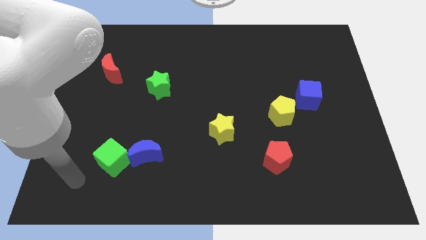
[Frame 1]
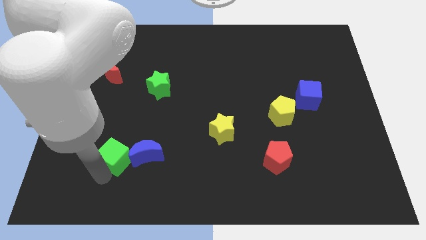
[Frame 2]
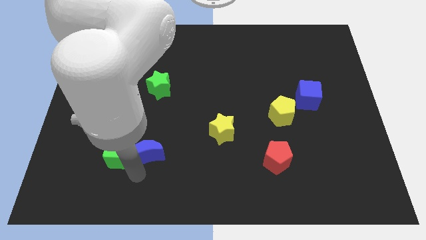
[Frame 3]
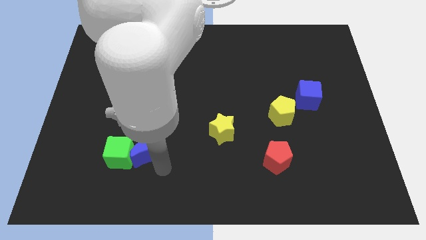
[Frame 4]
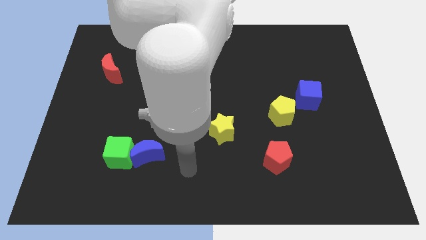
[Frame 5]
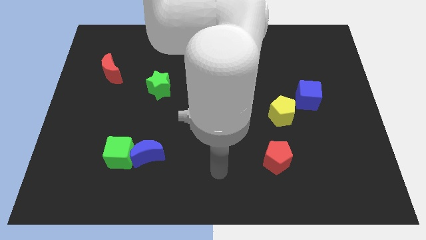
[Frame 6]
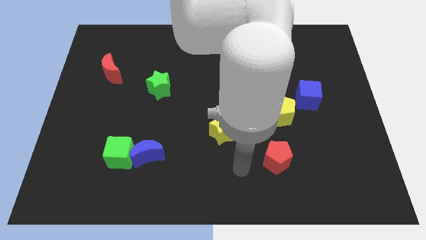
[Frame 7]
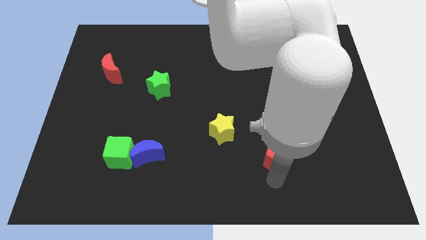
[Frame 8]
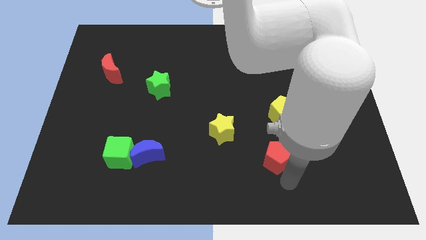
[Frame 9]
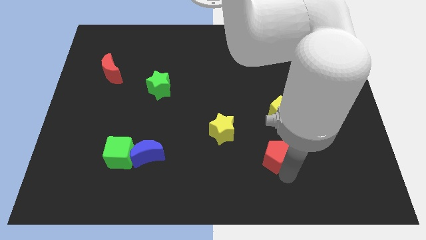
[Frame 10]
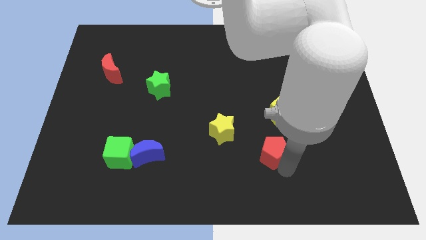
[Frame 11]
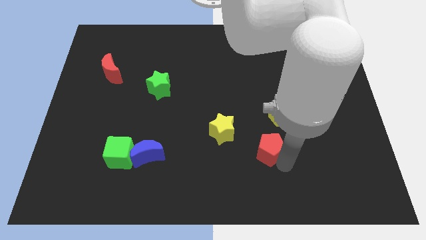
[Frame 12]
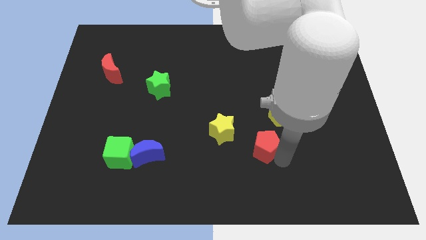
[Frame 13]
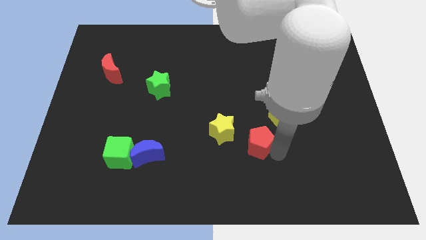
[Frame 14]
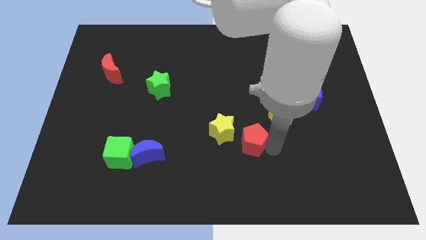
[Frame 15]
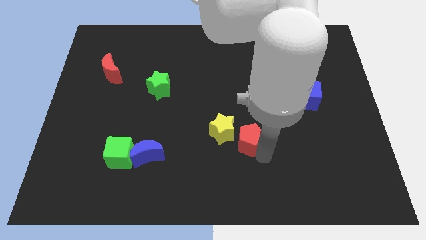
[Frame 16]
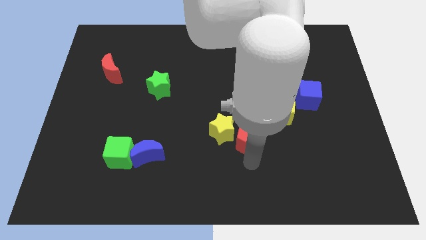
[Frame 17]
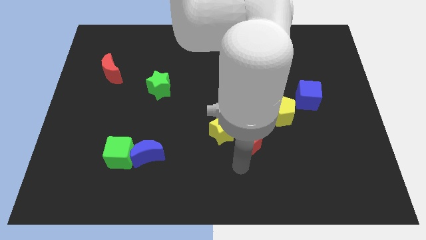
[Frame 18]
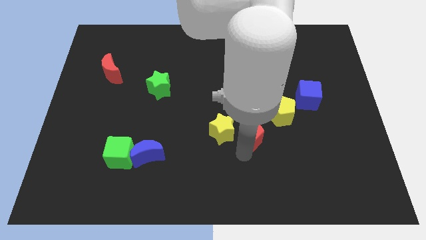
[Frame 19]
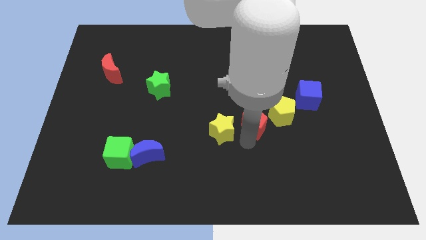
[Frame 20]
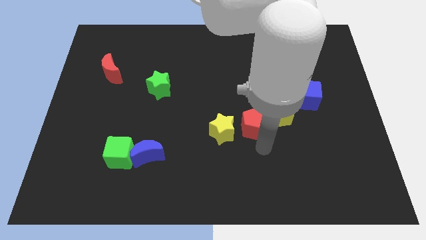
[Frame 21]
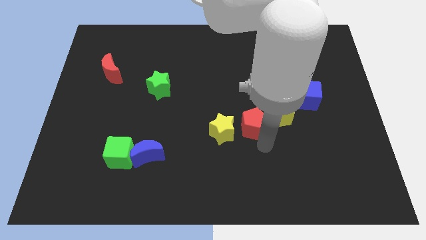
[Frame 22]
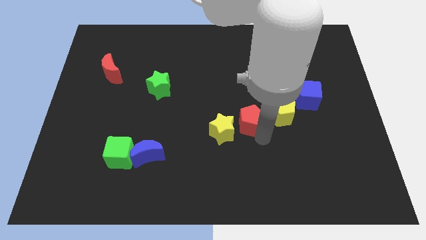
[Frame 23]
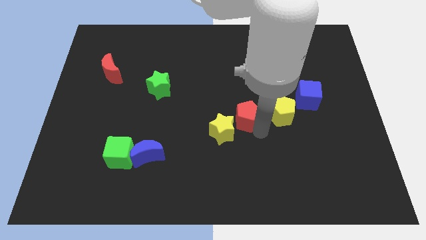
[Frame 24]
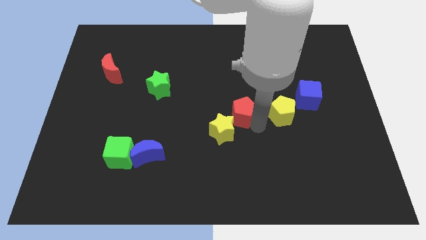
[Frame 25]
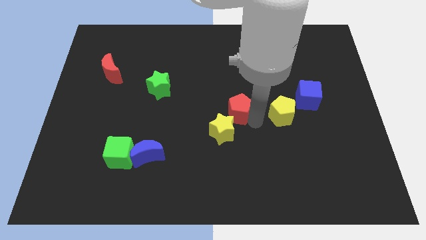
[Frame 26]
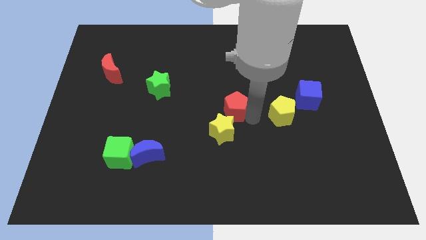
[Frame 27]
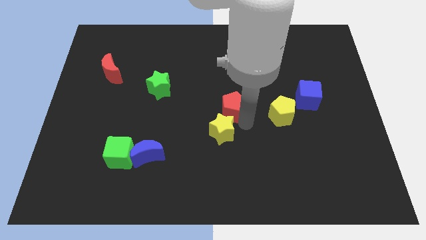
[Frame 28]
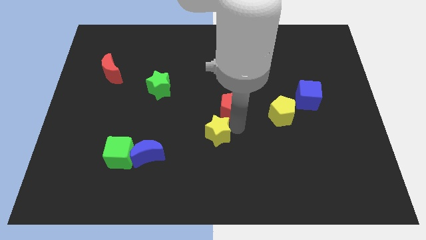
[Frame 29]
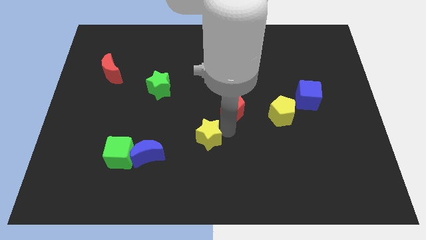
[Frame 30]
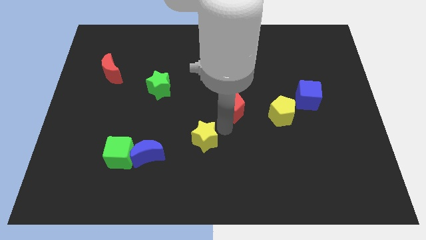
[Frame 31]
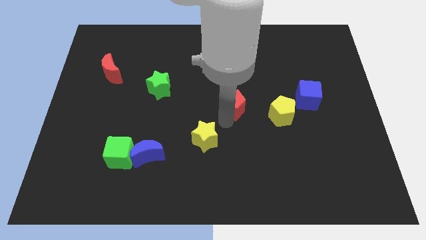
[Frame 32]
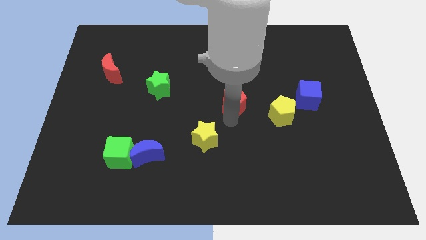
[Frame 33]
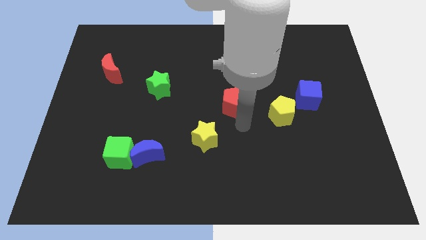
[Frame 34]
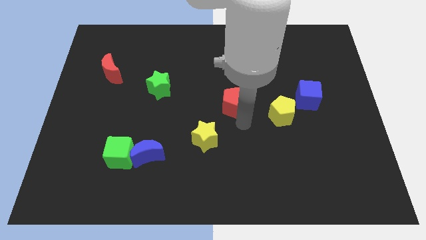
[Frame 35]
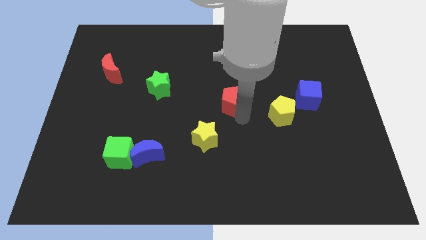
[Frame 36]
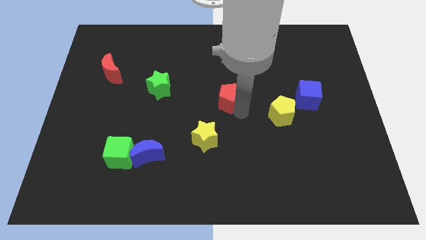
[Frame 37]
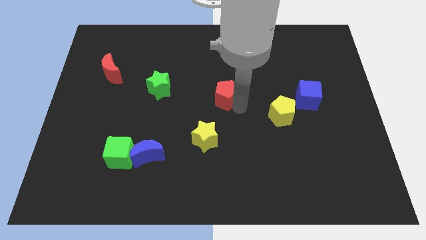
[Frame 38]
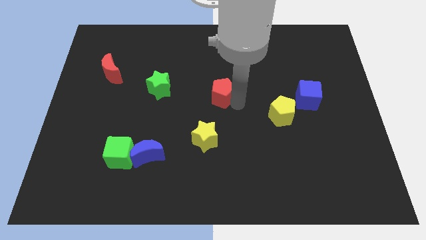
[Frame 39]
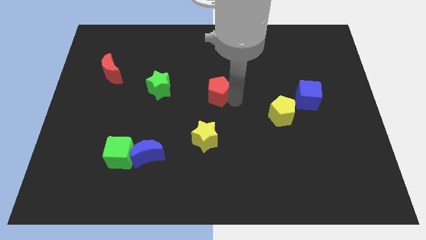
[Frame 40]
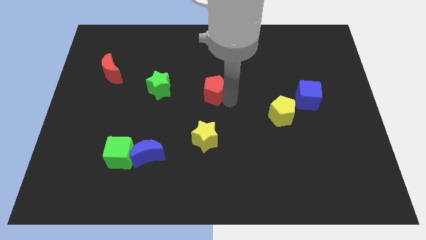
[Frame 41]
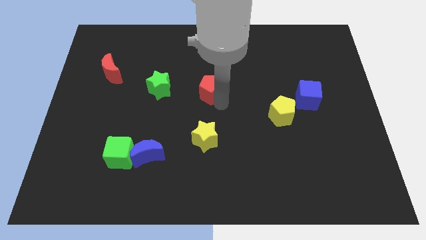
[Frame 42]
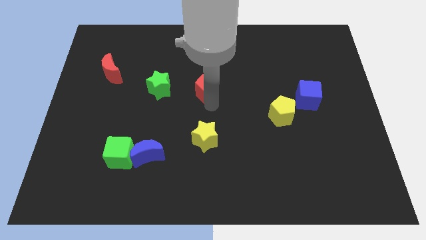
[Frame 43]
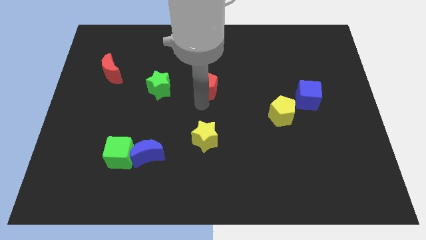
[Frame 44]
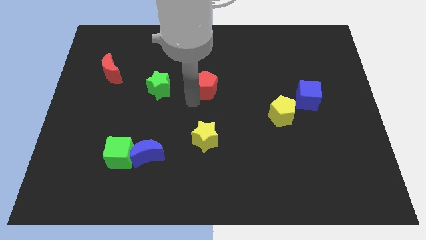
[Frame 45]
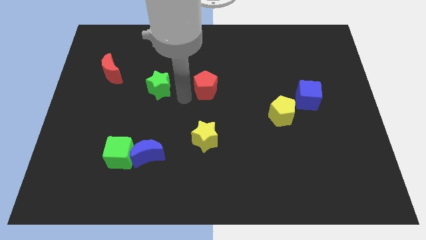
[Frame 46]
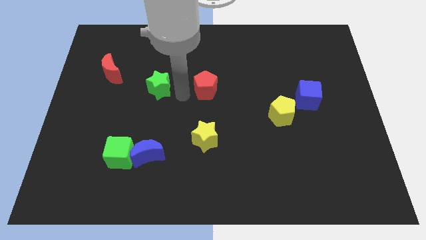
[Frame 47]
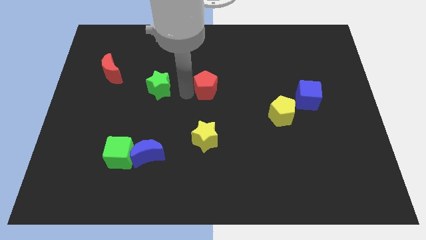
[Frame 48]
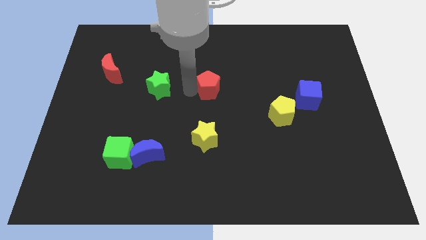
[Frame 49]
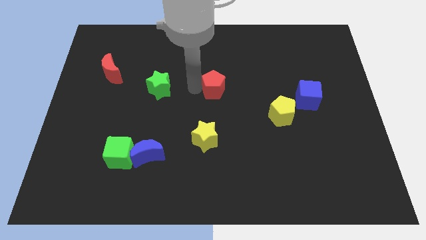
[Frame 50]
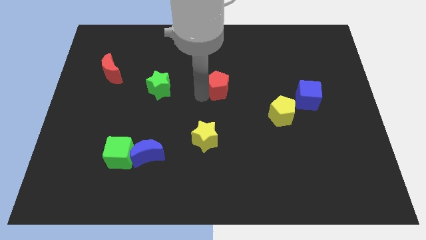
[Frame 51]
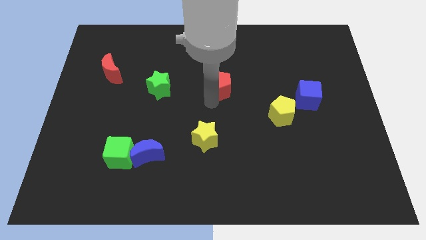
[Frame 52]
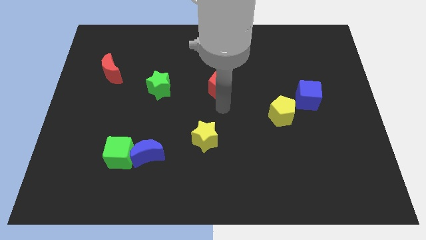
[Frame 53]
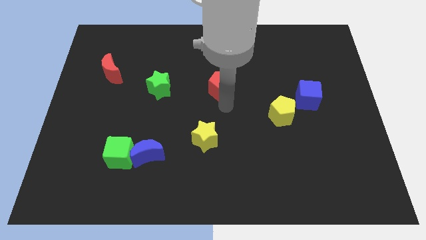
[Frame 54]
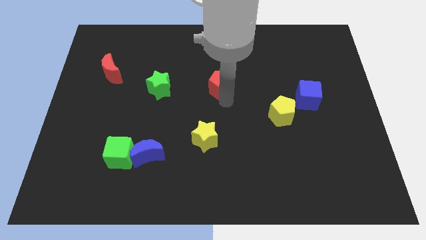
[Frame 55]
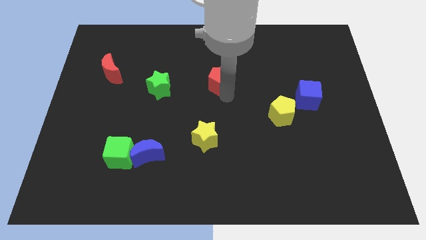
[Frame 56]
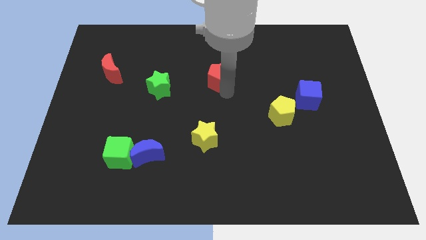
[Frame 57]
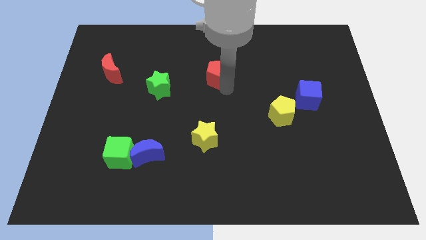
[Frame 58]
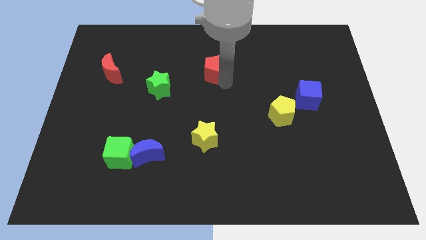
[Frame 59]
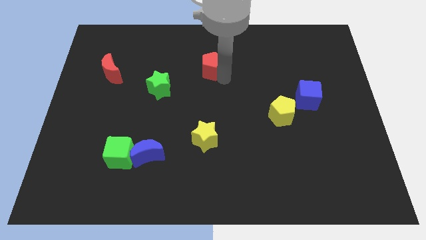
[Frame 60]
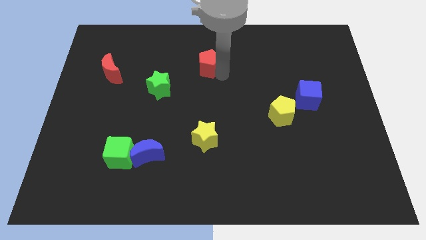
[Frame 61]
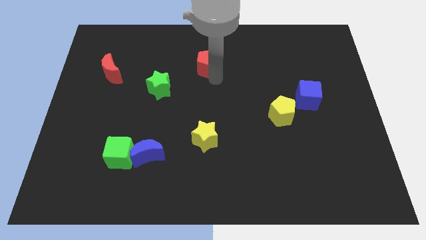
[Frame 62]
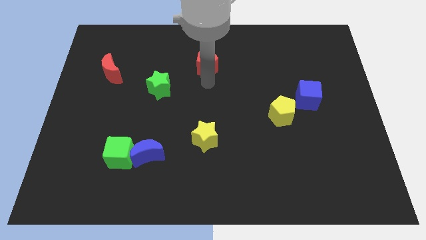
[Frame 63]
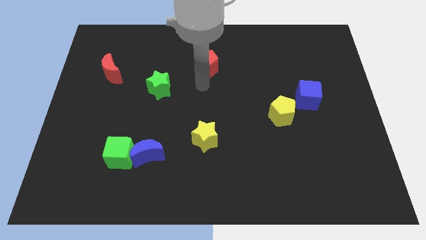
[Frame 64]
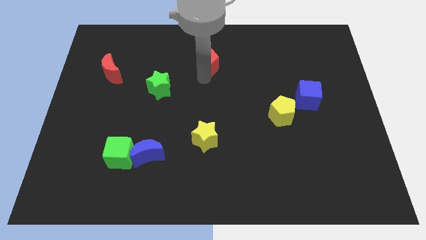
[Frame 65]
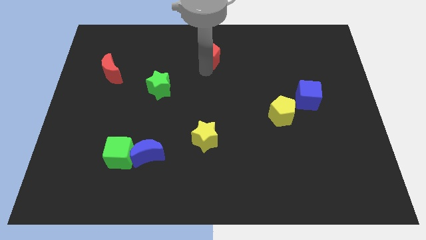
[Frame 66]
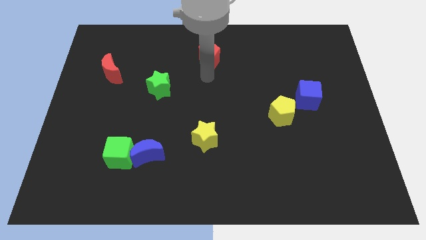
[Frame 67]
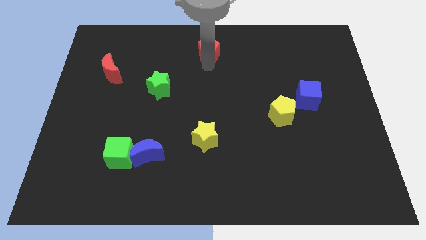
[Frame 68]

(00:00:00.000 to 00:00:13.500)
move the red pentagon to the top
